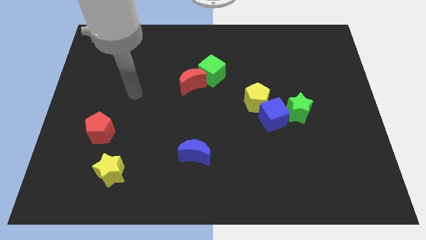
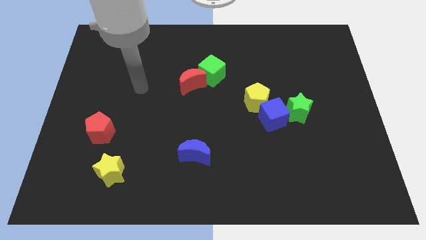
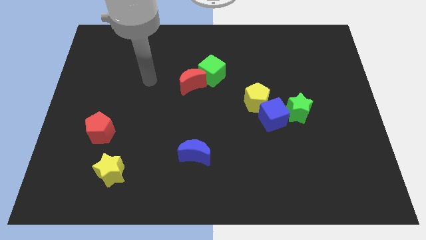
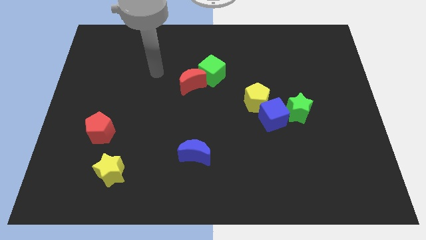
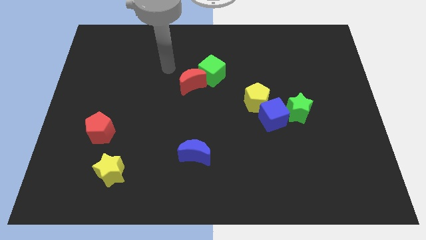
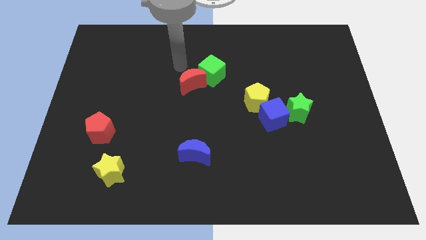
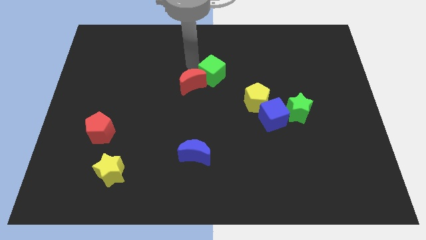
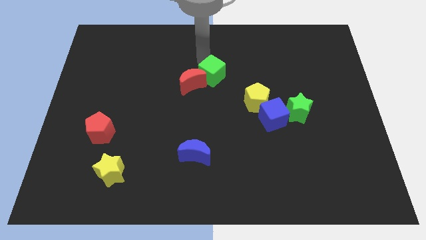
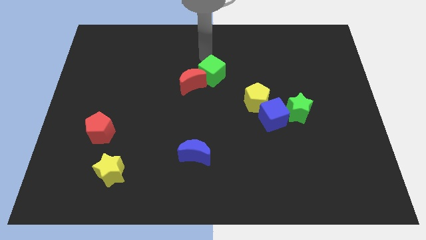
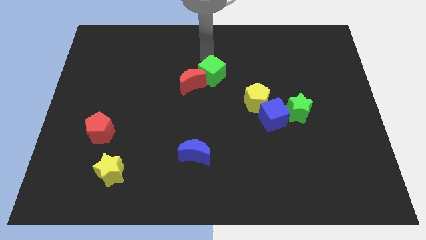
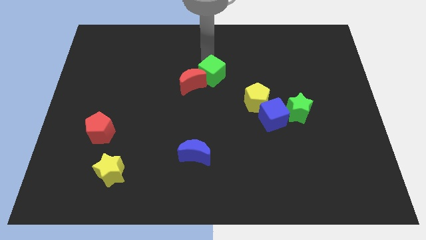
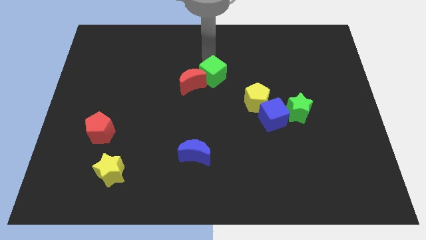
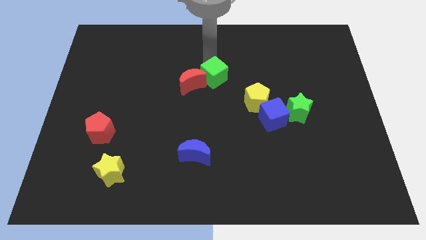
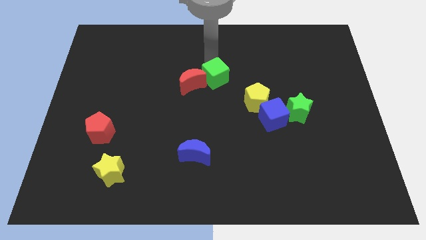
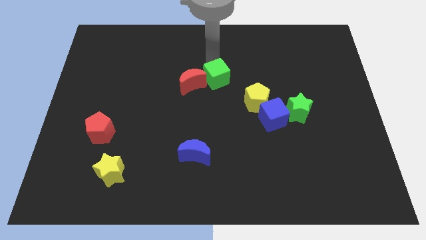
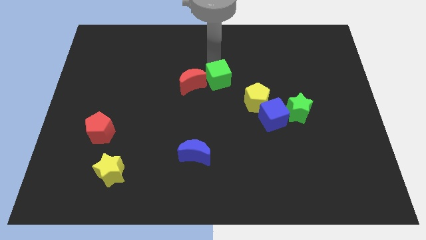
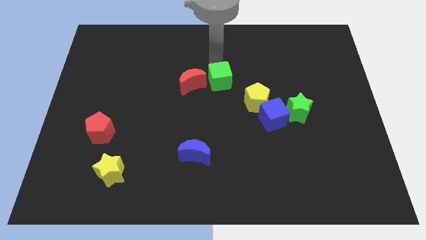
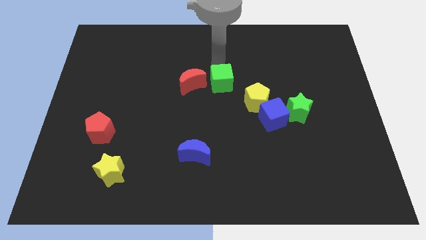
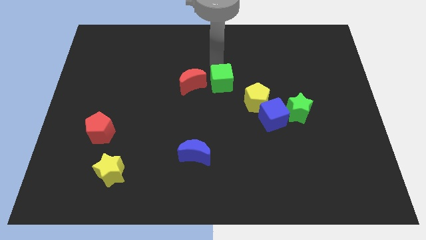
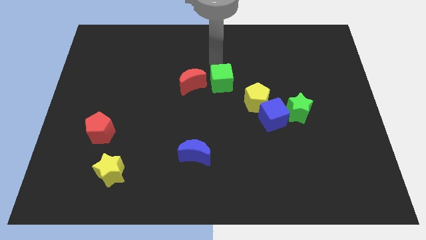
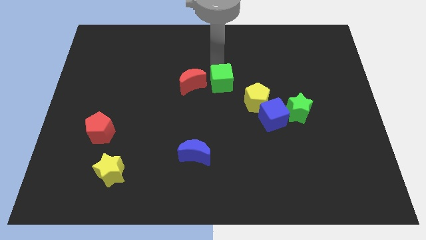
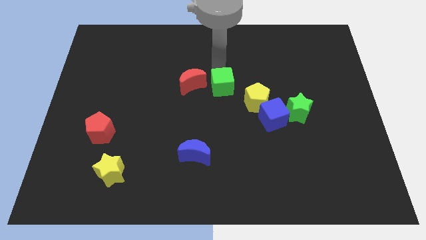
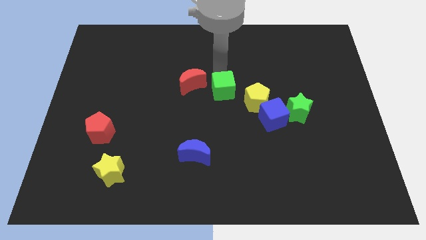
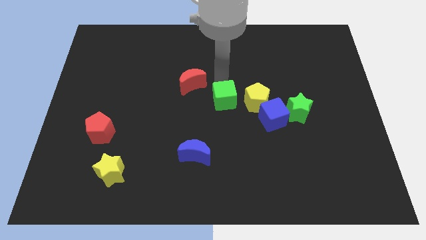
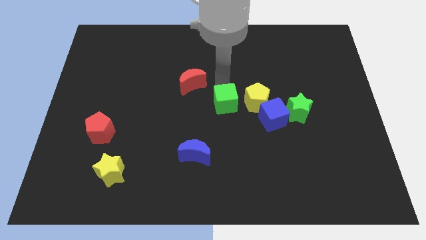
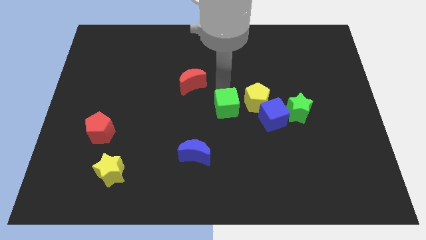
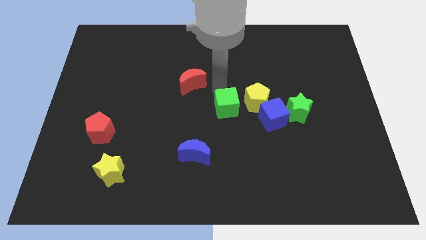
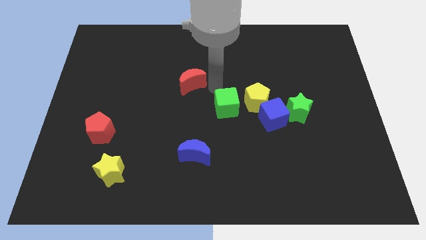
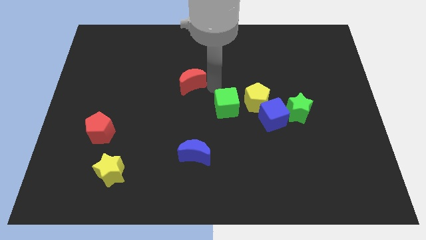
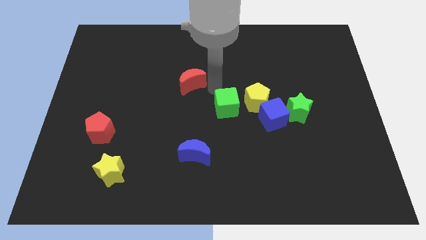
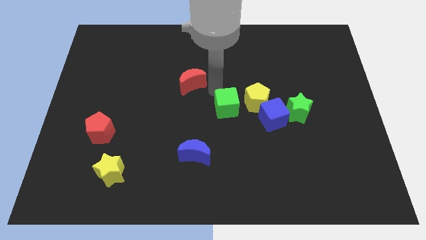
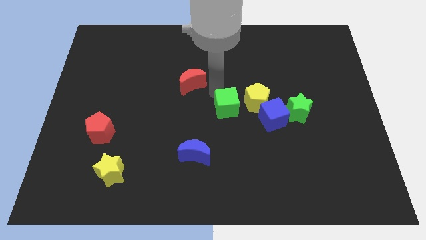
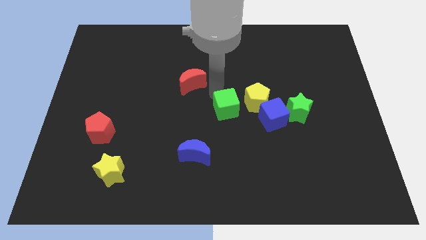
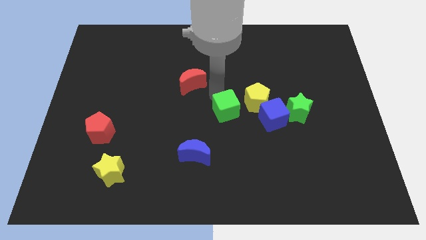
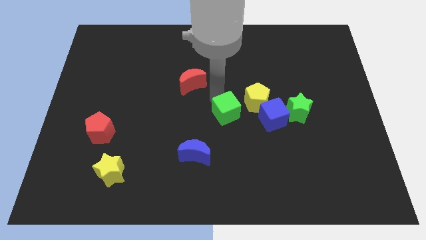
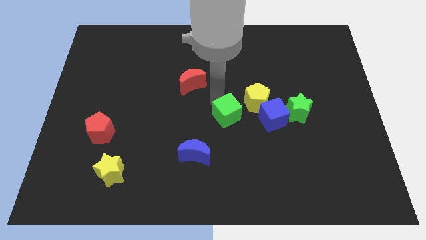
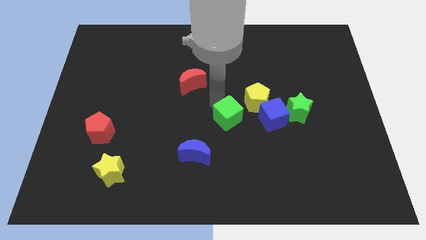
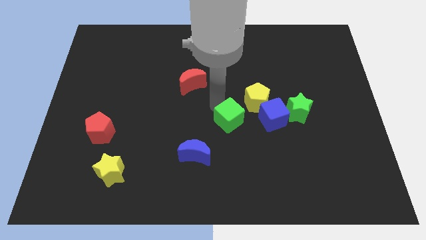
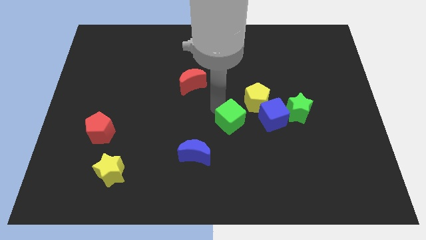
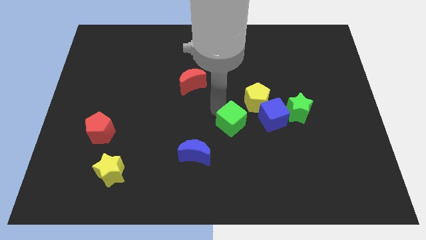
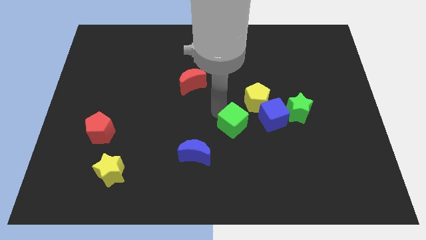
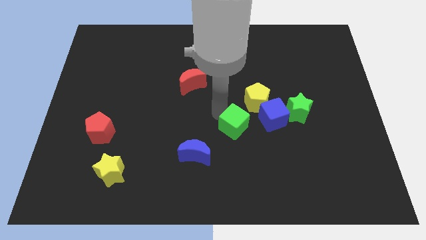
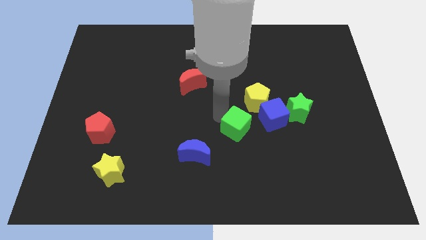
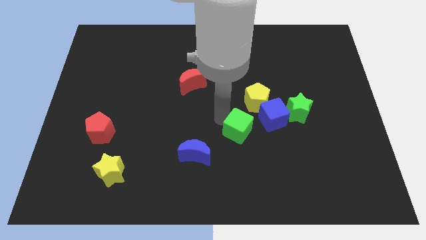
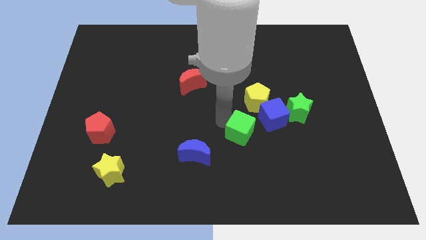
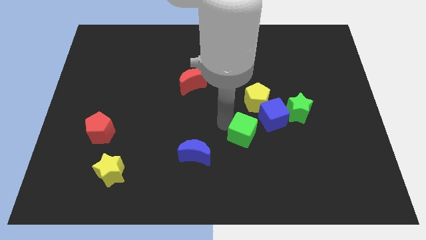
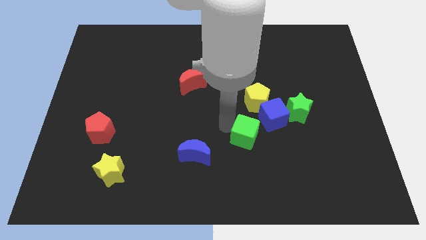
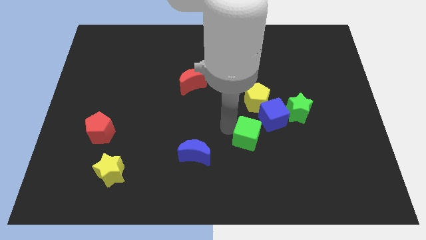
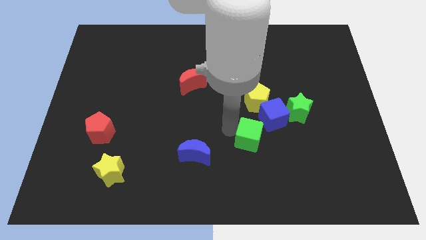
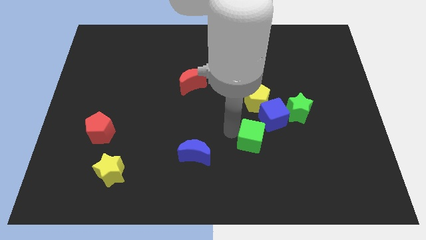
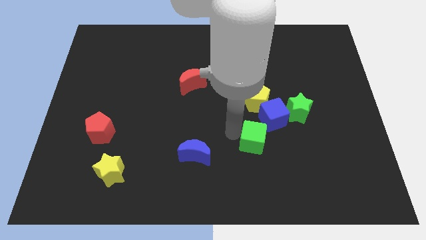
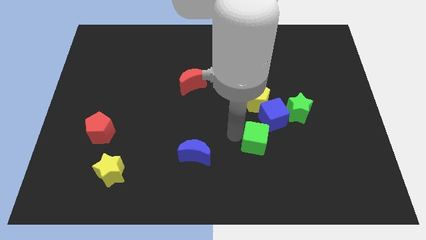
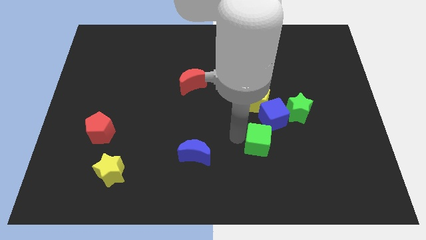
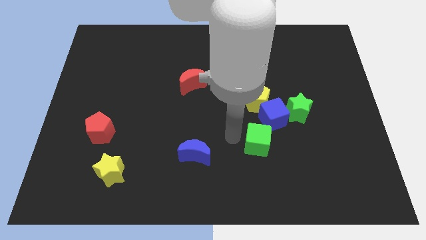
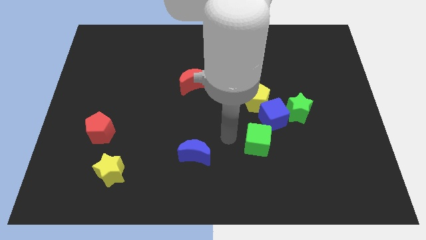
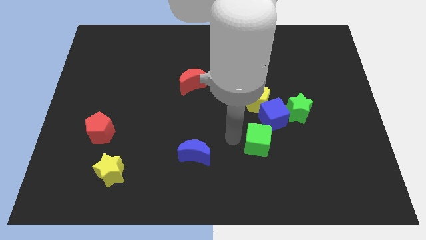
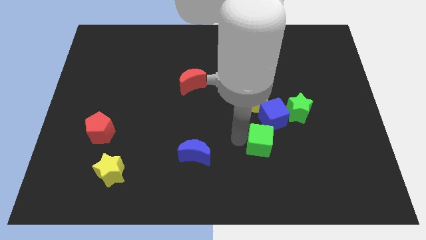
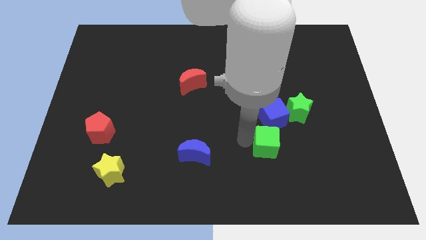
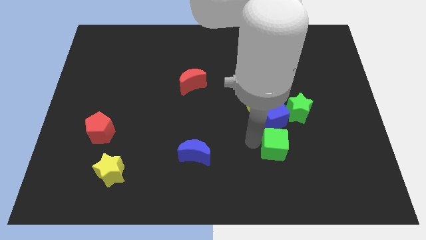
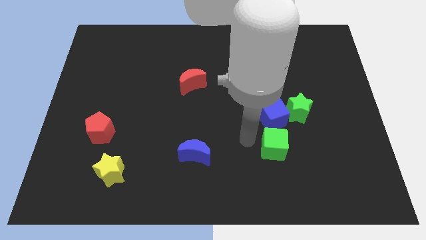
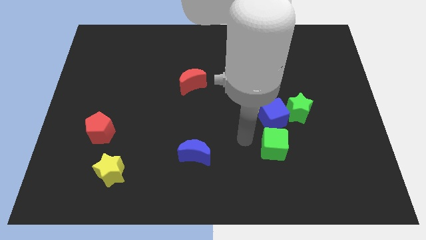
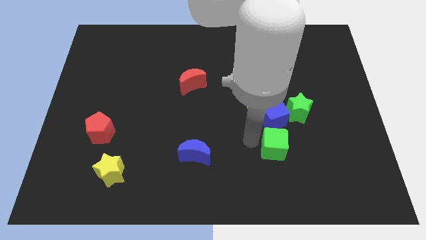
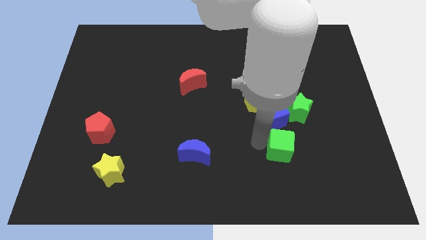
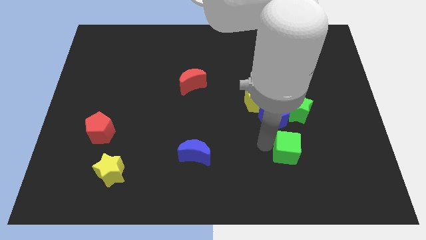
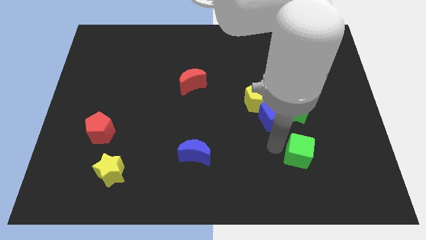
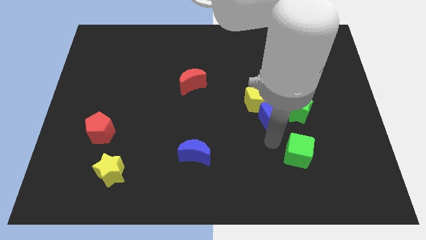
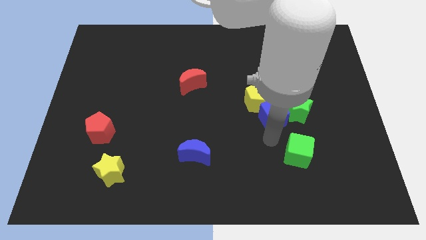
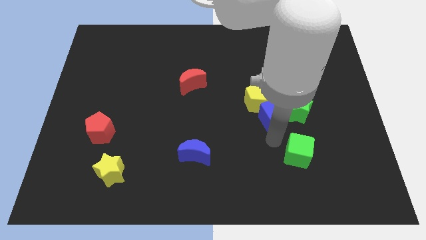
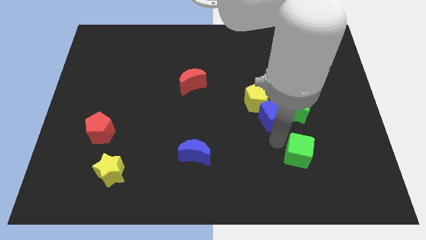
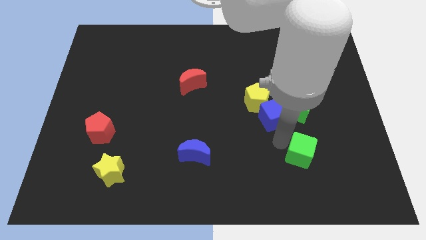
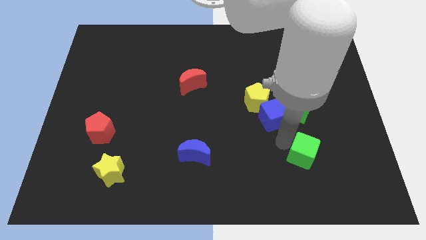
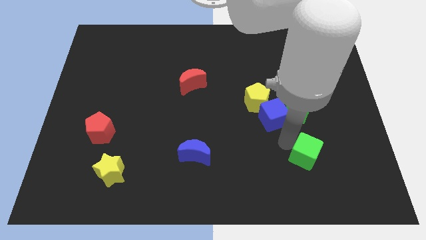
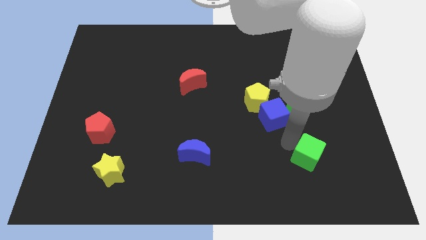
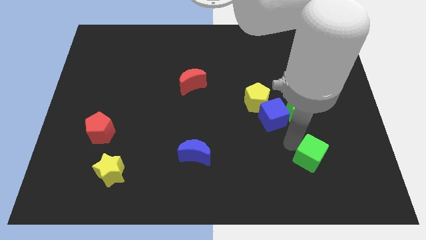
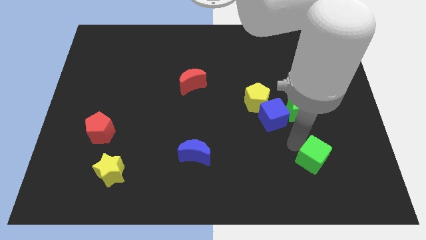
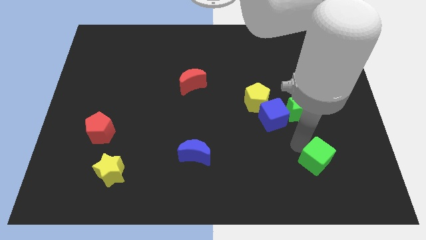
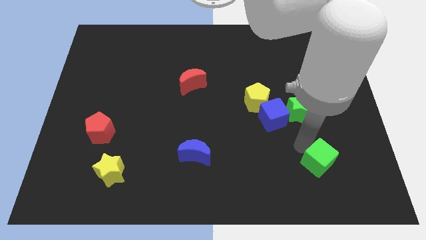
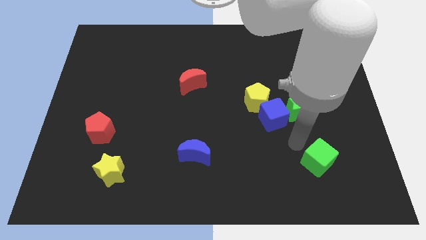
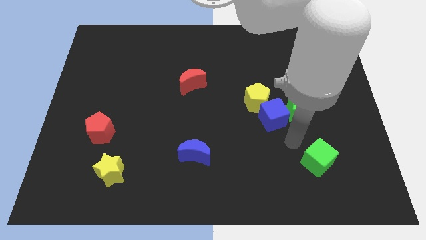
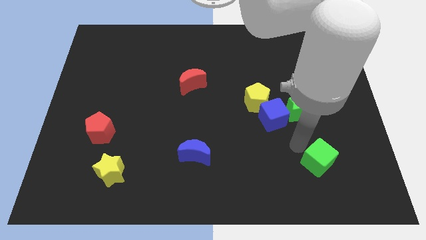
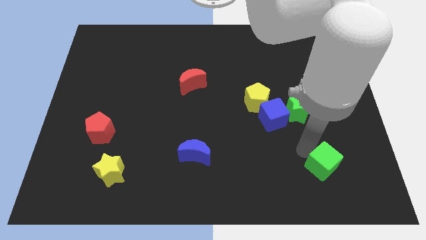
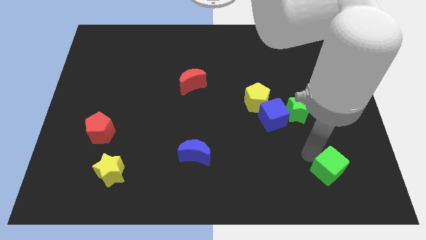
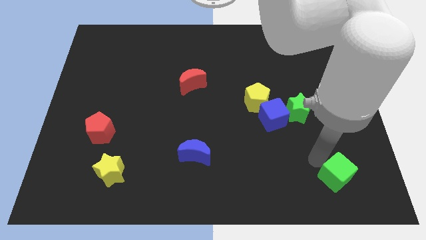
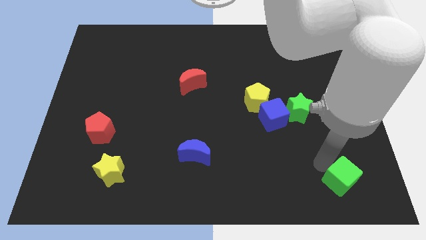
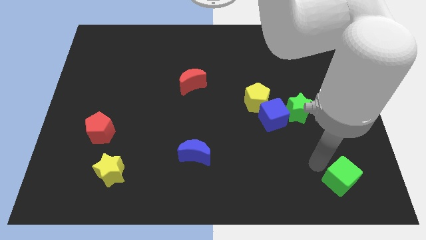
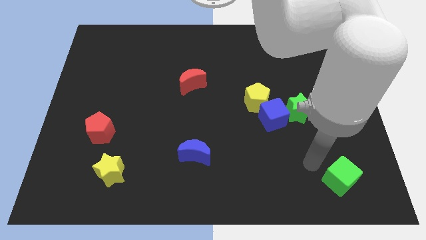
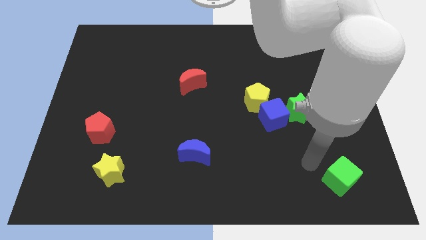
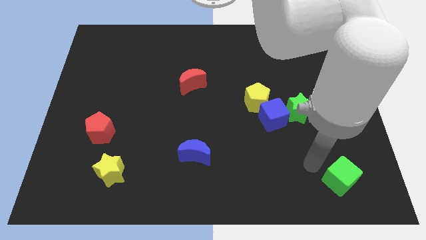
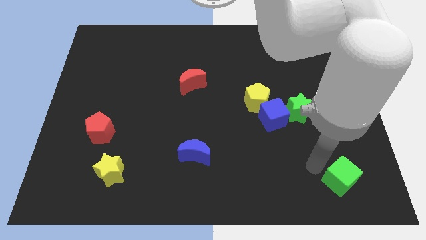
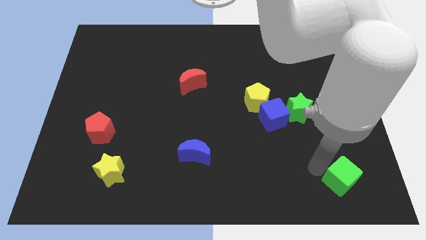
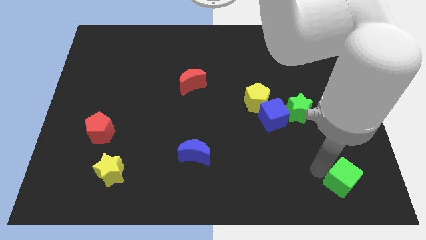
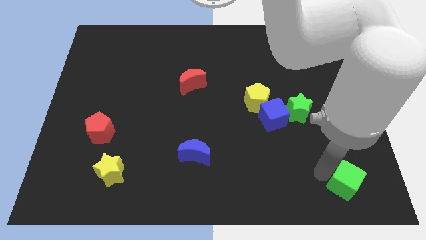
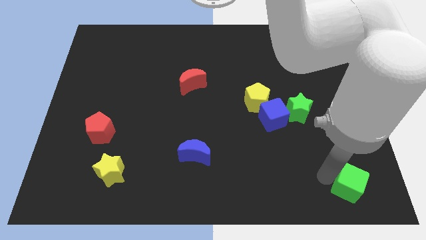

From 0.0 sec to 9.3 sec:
move the green cube to the bottom right of the board
